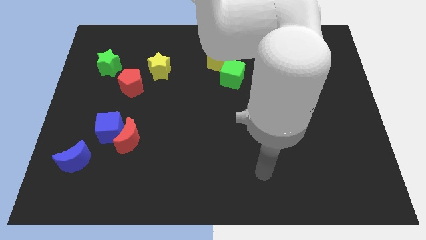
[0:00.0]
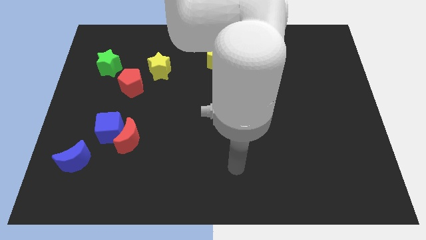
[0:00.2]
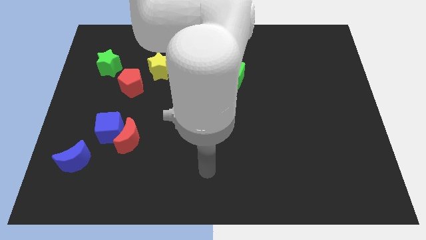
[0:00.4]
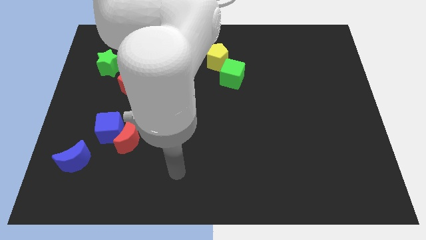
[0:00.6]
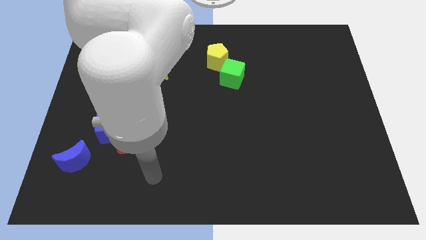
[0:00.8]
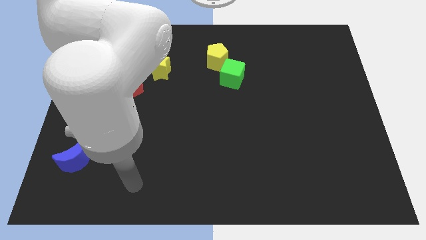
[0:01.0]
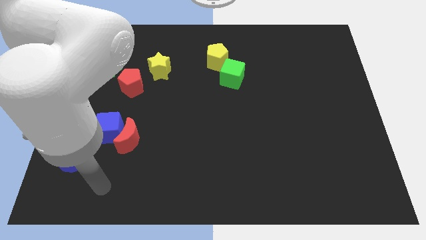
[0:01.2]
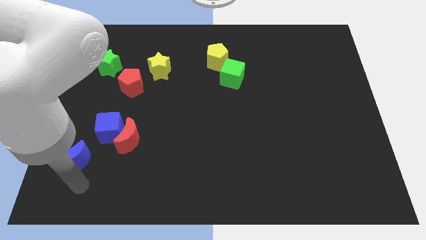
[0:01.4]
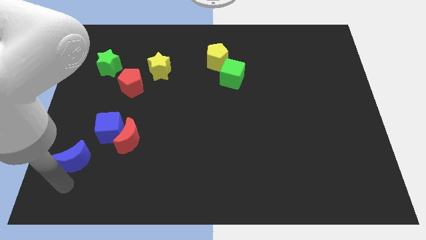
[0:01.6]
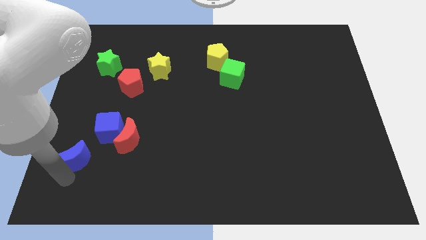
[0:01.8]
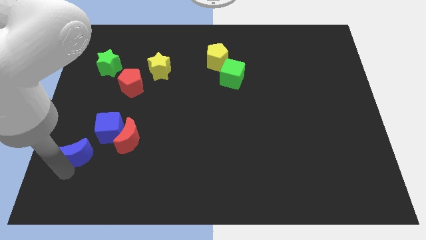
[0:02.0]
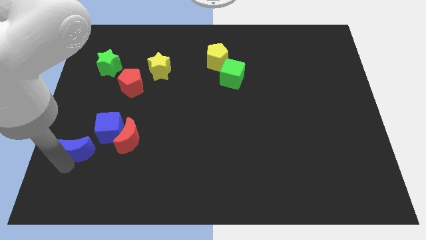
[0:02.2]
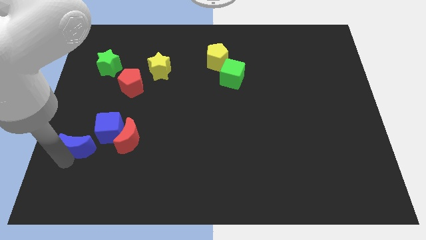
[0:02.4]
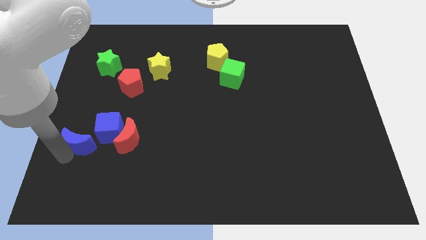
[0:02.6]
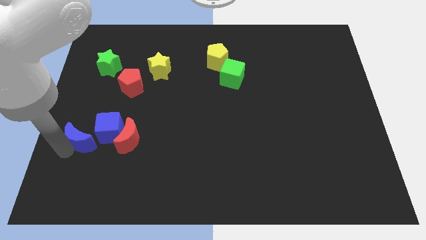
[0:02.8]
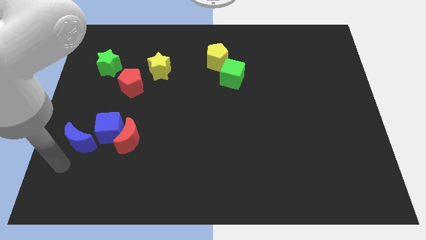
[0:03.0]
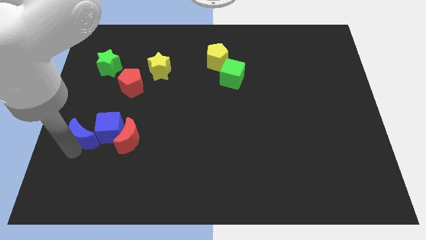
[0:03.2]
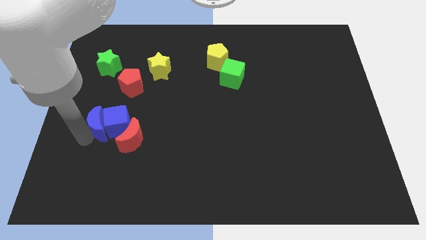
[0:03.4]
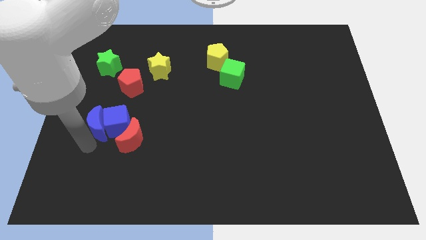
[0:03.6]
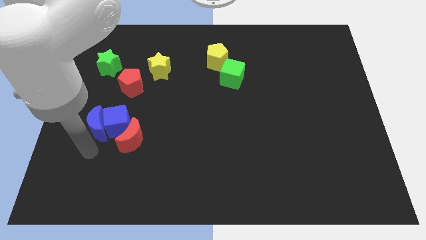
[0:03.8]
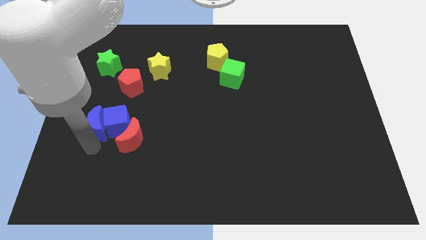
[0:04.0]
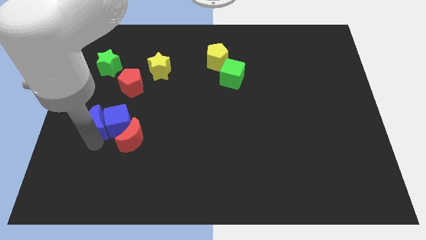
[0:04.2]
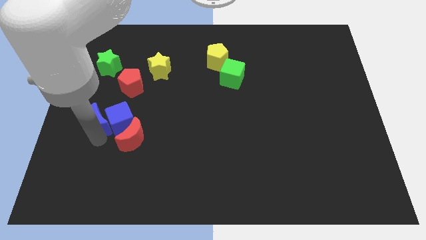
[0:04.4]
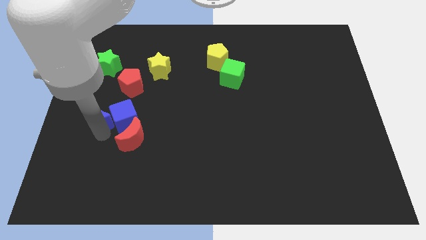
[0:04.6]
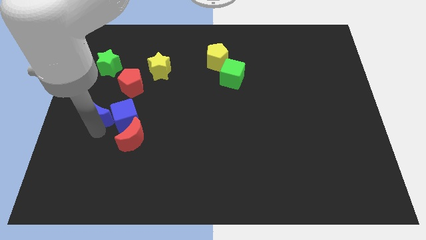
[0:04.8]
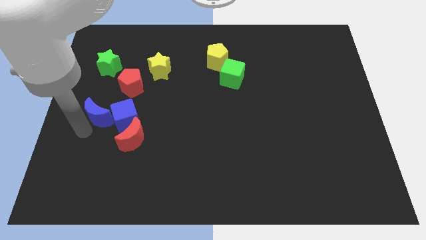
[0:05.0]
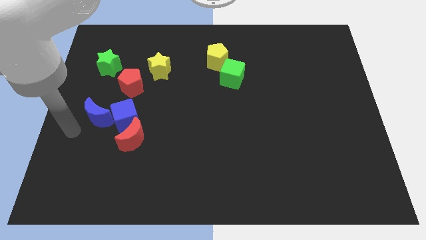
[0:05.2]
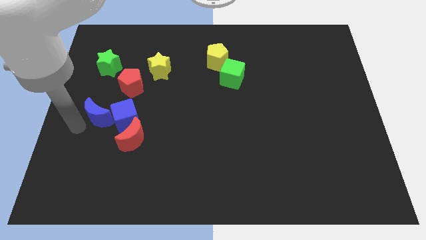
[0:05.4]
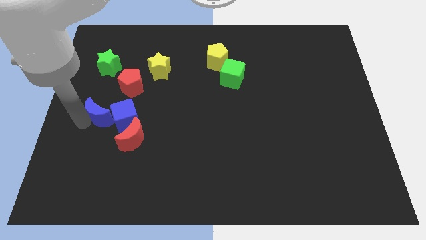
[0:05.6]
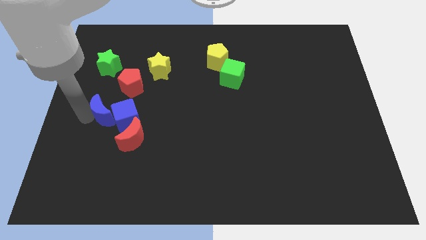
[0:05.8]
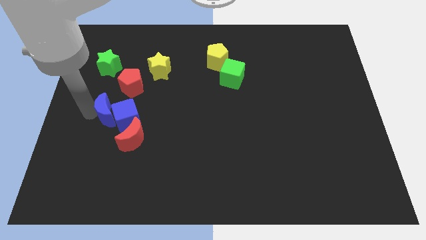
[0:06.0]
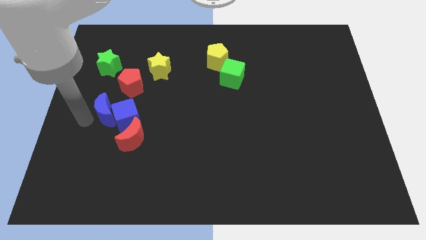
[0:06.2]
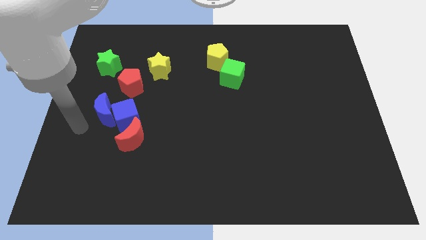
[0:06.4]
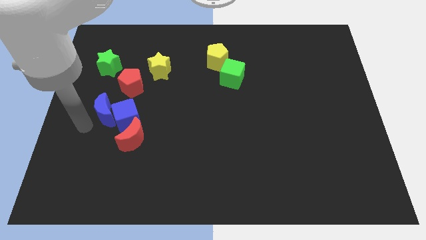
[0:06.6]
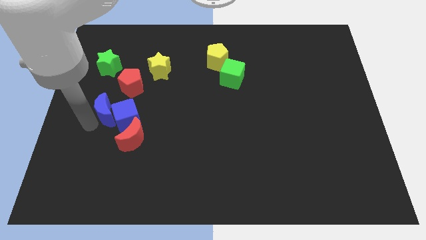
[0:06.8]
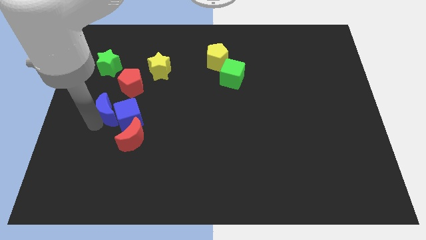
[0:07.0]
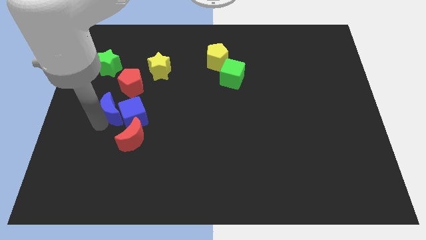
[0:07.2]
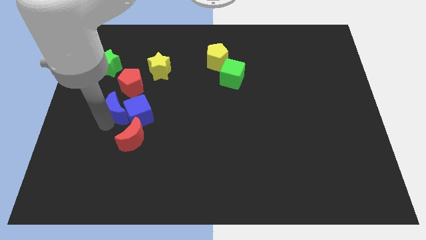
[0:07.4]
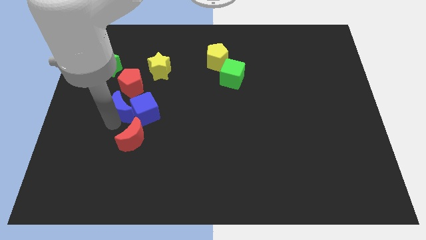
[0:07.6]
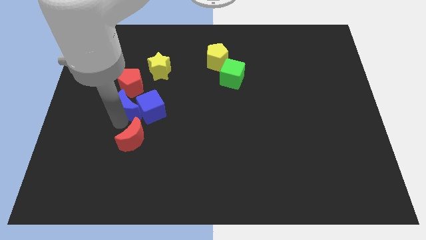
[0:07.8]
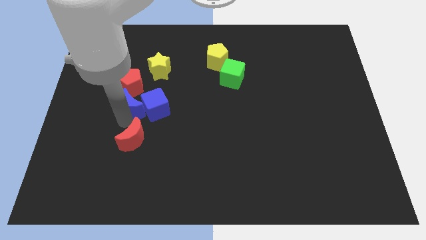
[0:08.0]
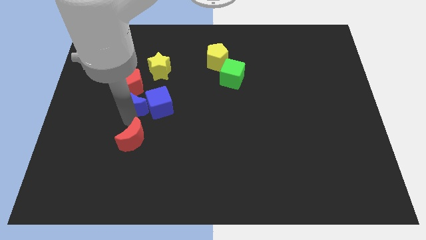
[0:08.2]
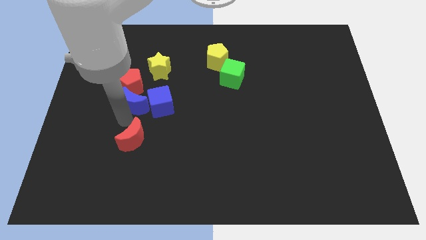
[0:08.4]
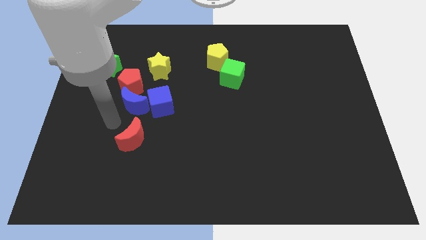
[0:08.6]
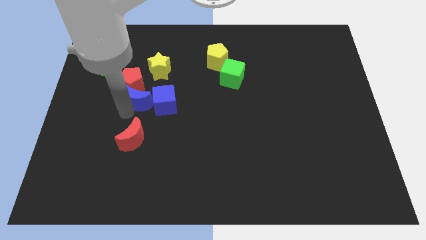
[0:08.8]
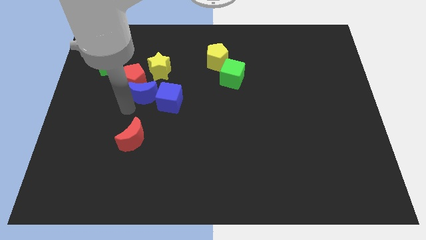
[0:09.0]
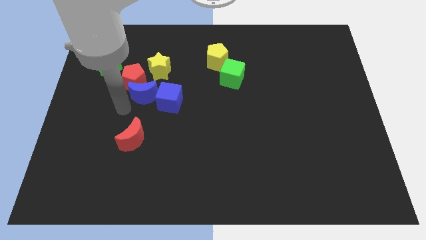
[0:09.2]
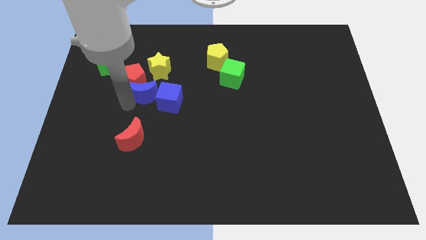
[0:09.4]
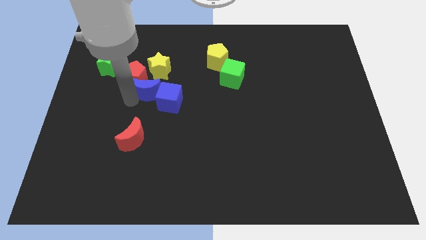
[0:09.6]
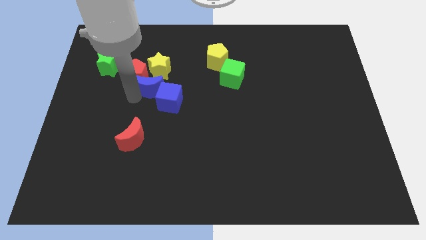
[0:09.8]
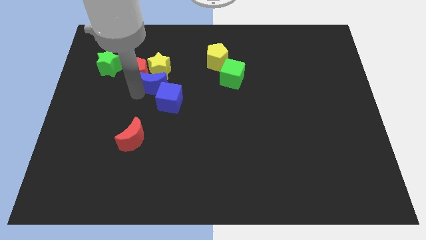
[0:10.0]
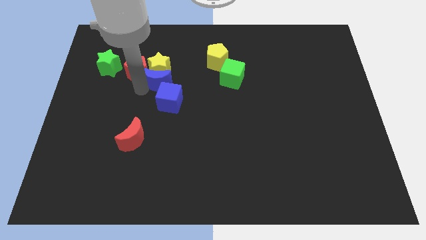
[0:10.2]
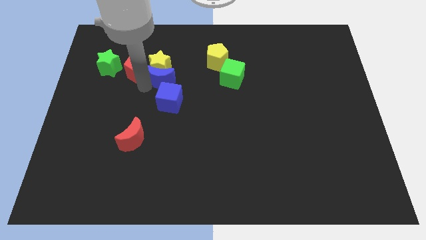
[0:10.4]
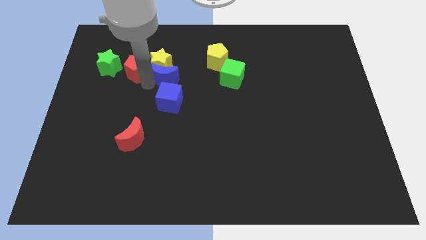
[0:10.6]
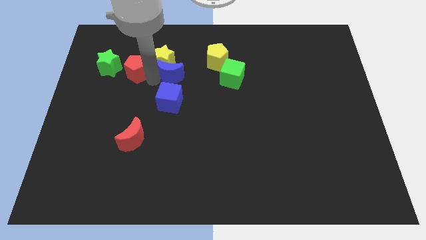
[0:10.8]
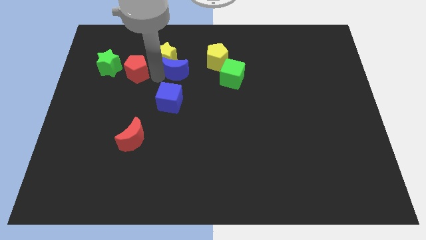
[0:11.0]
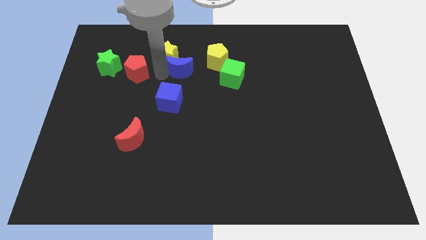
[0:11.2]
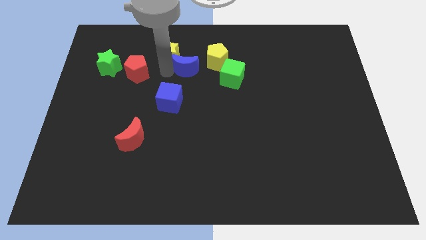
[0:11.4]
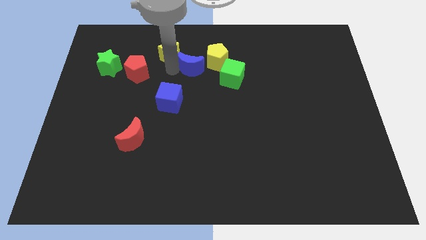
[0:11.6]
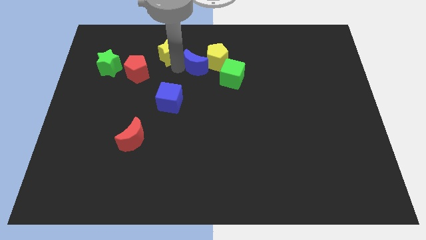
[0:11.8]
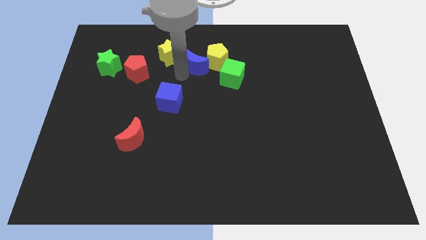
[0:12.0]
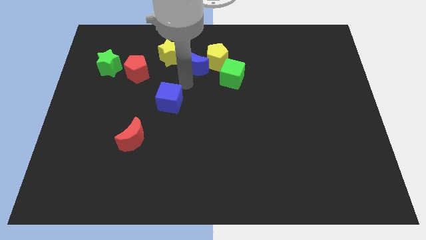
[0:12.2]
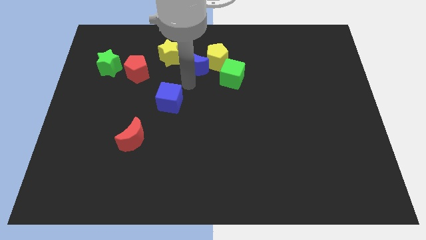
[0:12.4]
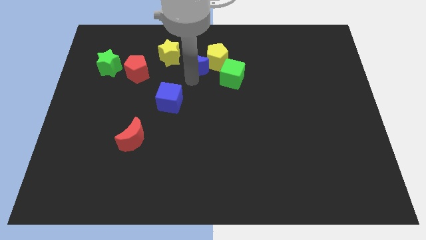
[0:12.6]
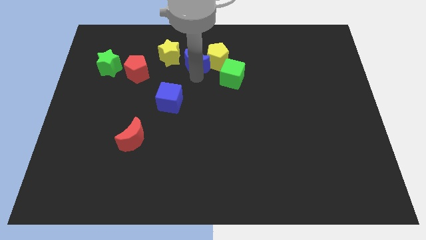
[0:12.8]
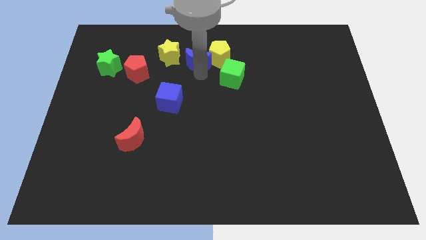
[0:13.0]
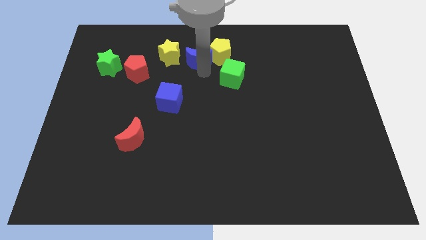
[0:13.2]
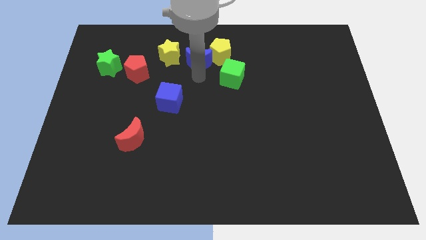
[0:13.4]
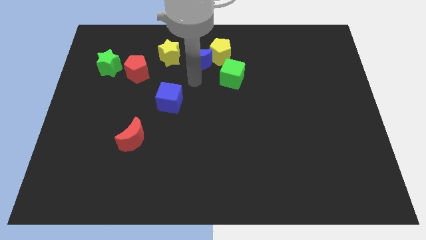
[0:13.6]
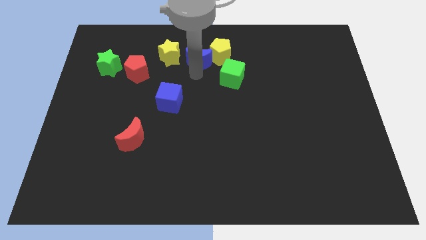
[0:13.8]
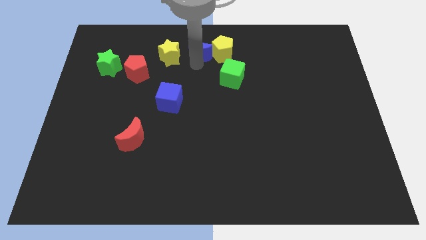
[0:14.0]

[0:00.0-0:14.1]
put the blue moon to the top side
